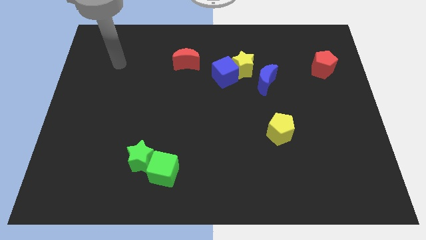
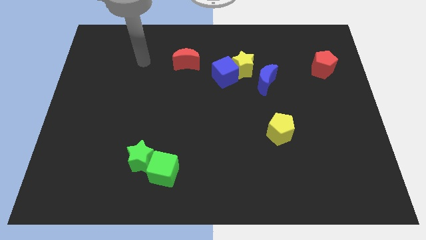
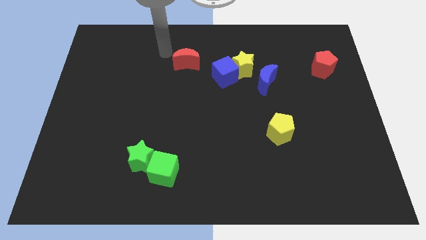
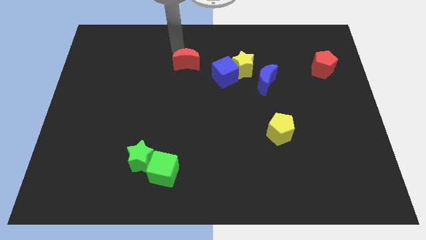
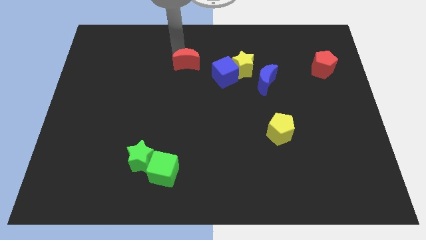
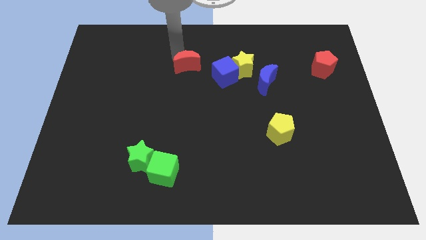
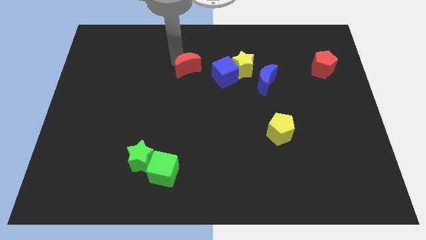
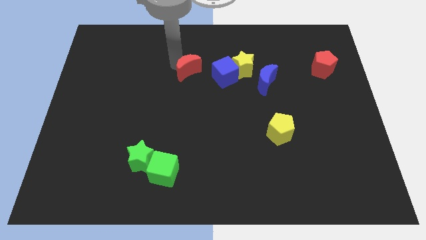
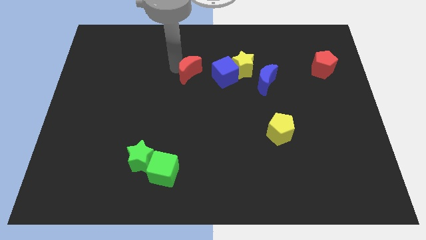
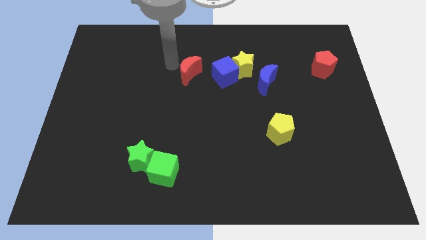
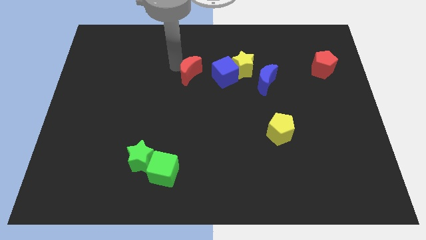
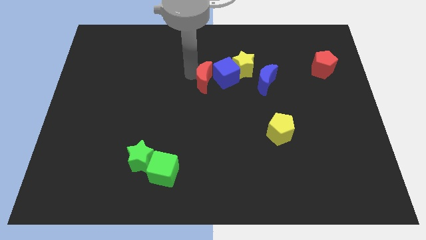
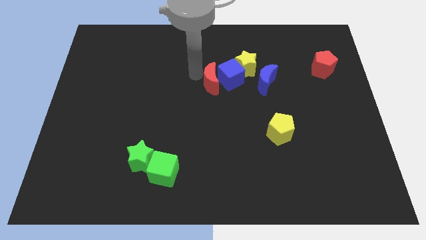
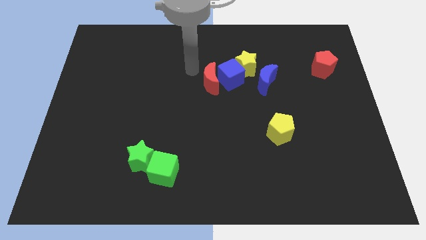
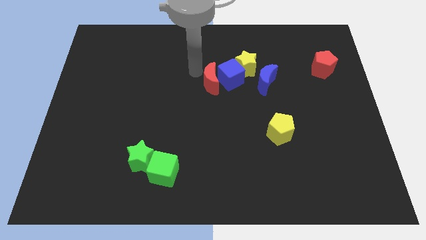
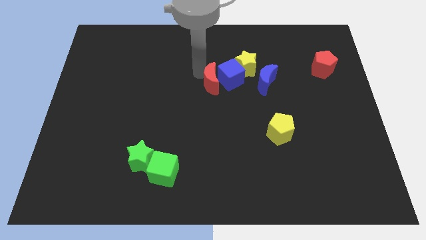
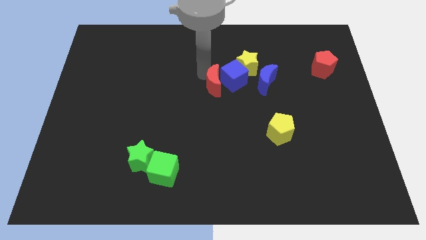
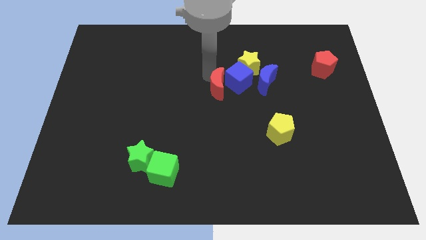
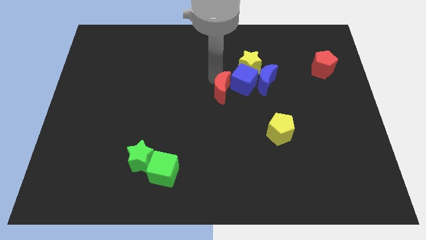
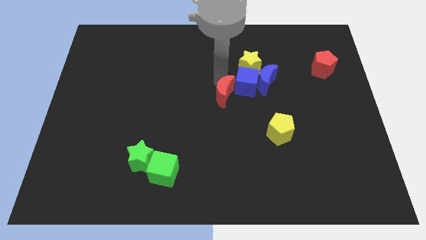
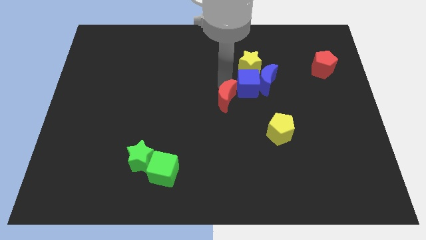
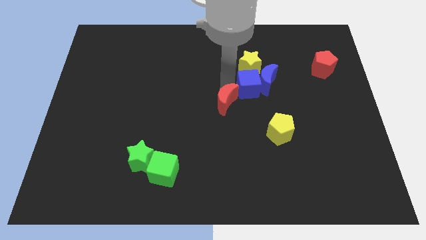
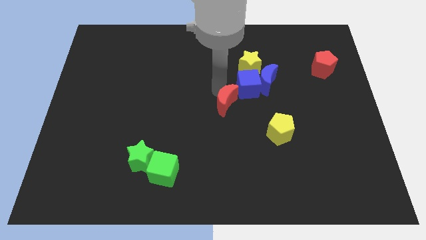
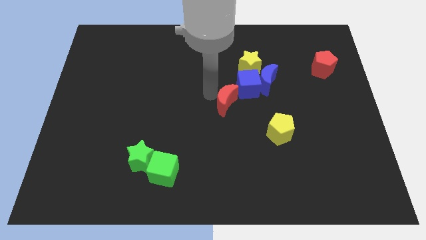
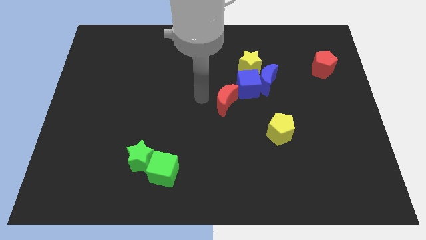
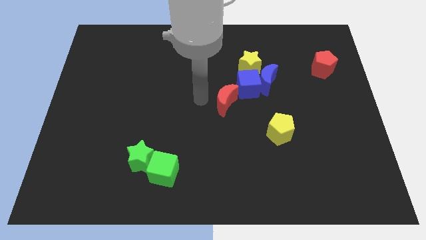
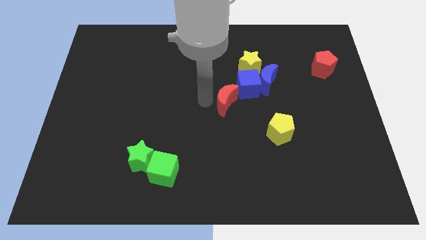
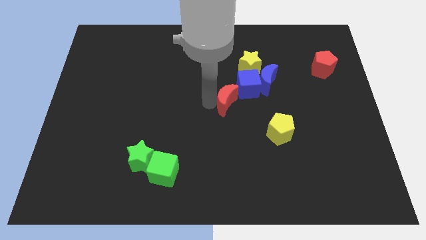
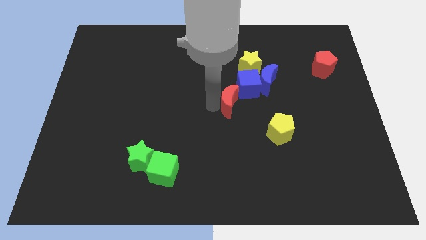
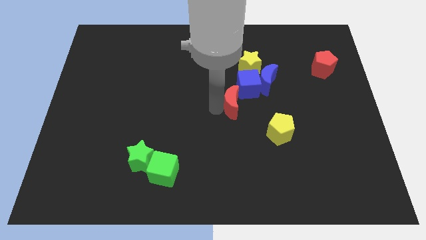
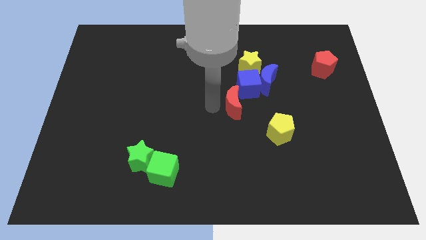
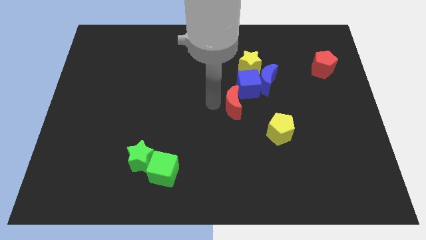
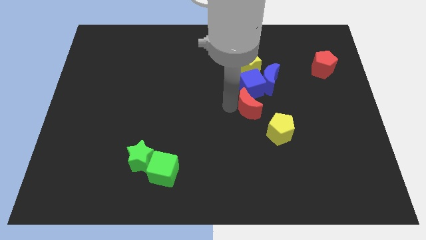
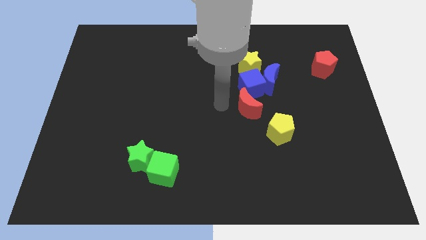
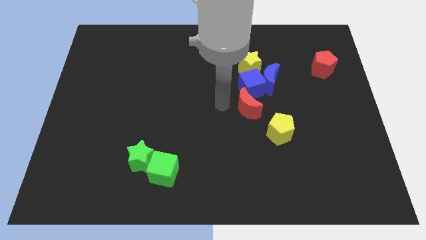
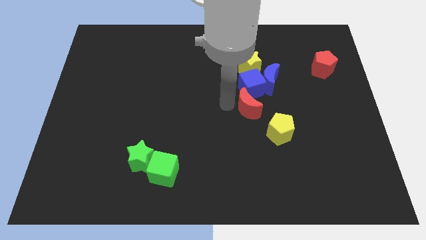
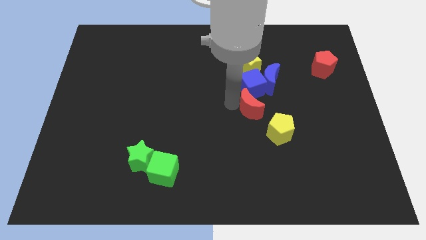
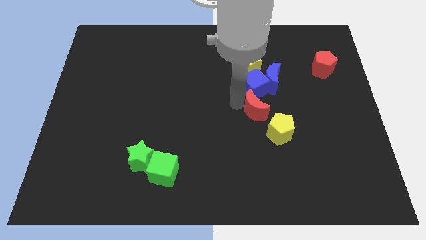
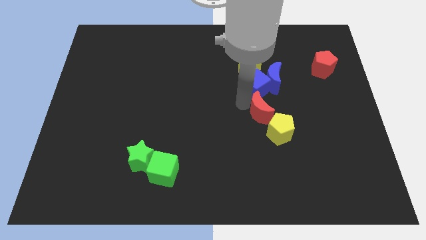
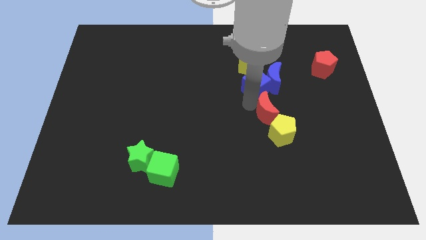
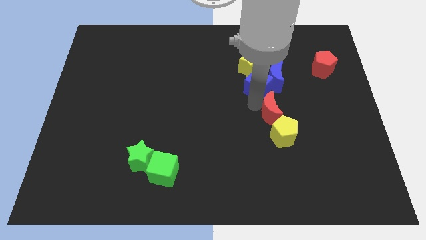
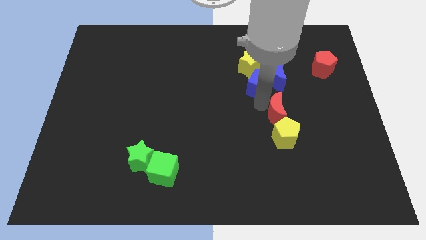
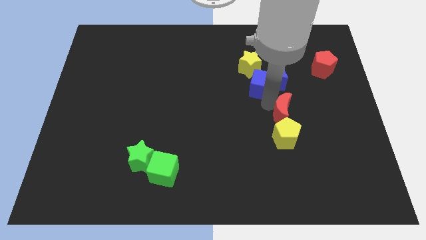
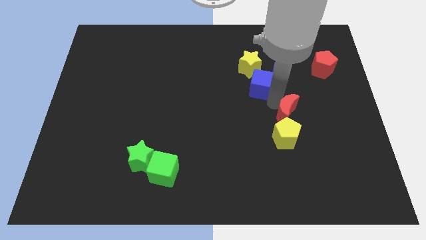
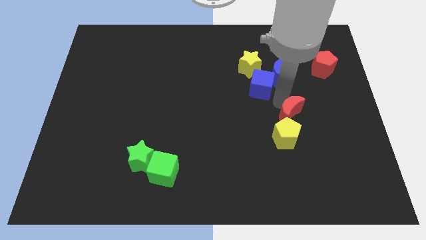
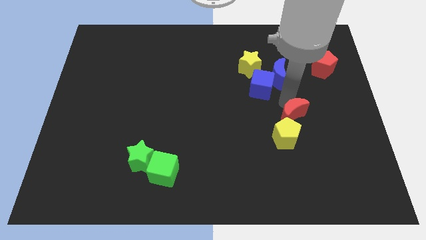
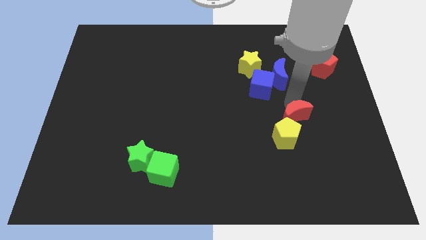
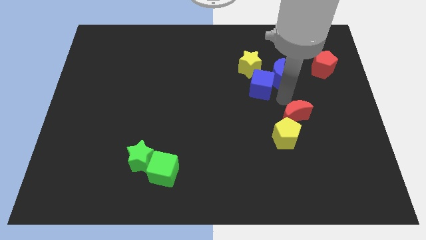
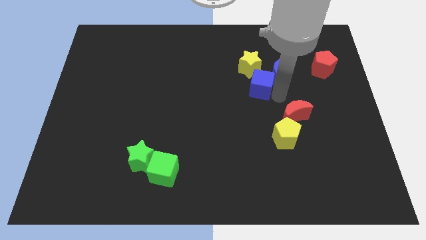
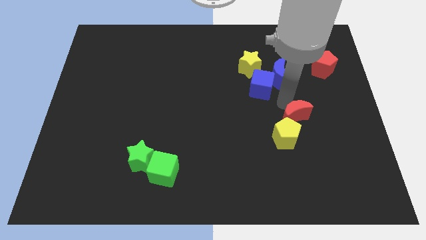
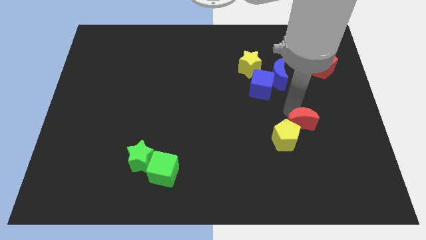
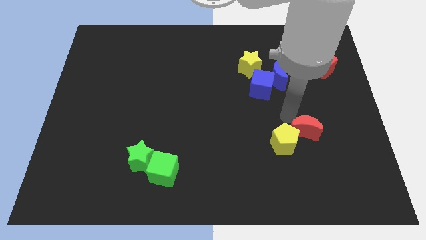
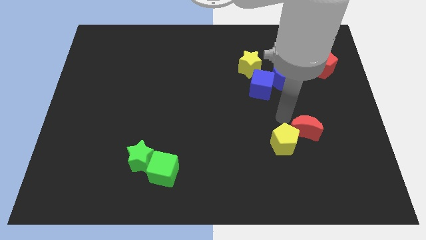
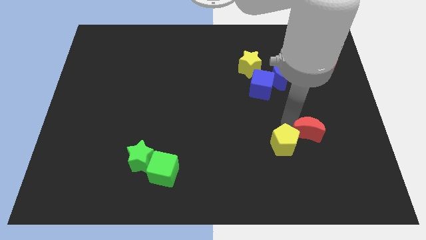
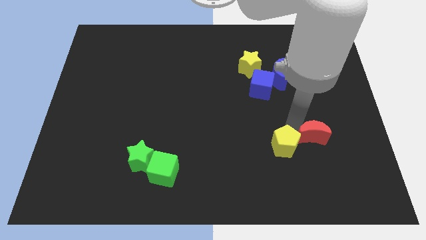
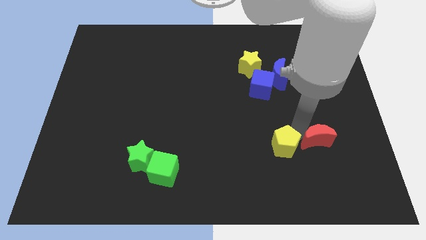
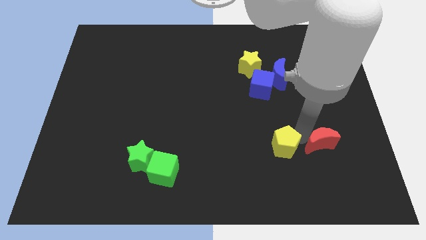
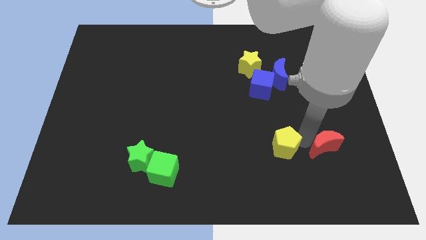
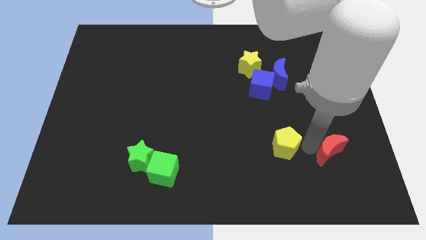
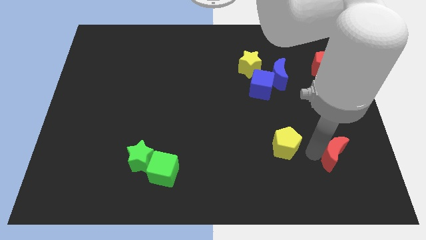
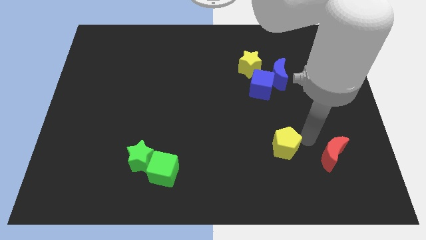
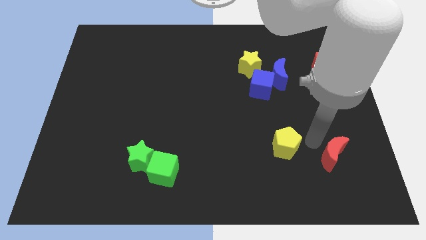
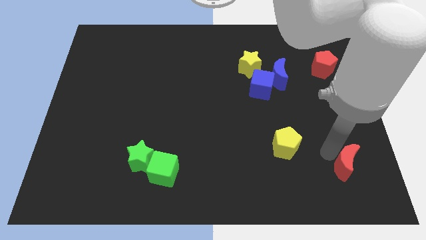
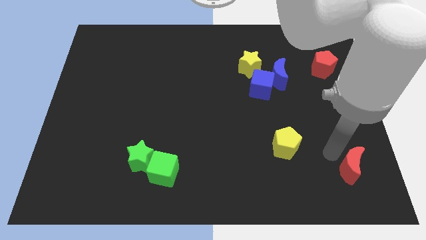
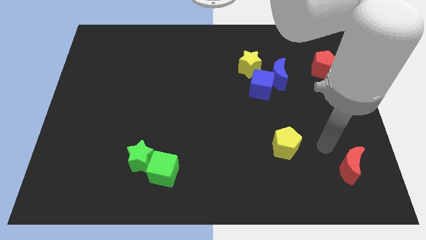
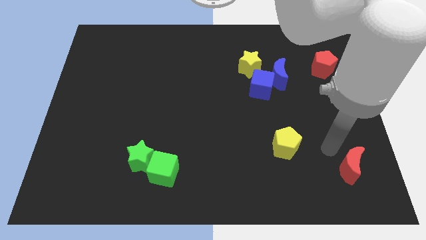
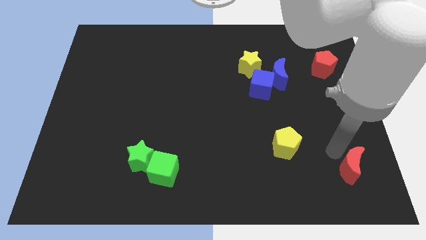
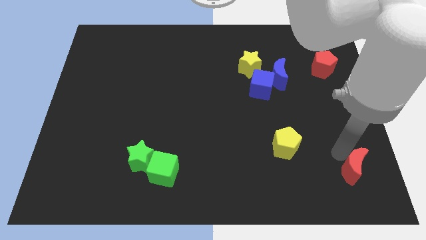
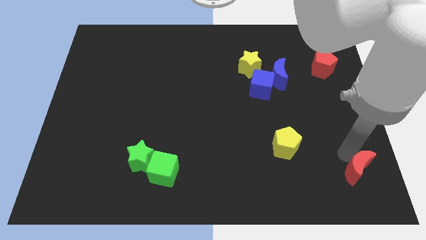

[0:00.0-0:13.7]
put the red moon to the lower right corner
